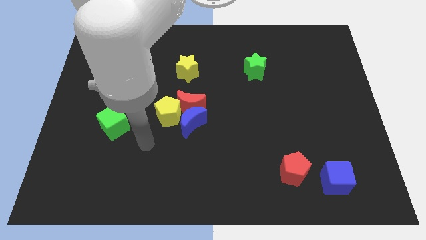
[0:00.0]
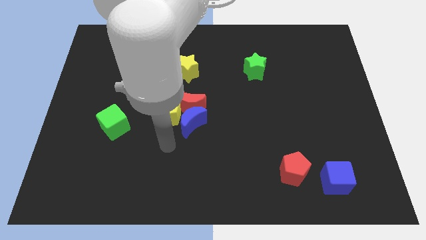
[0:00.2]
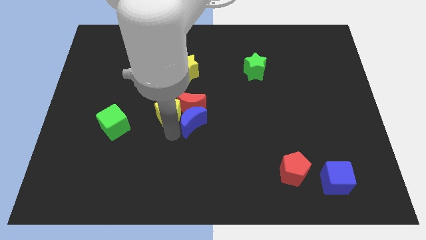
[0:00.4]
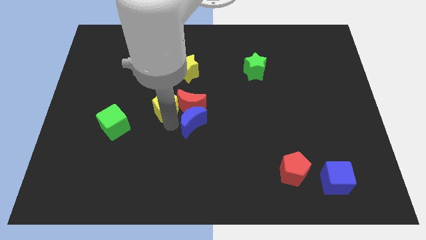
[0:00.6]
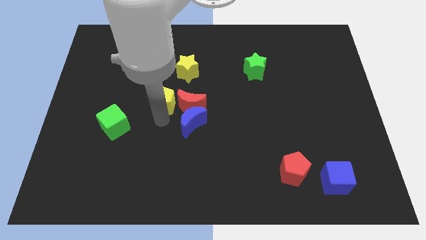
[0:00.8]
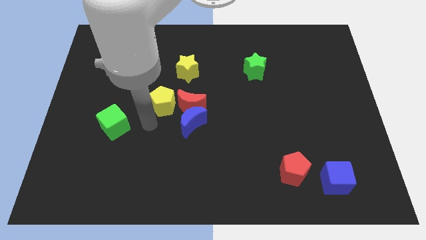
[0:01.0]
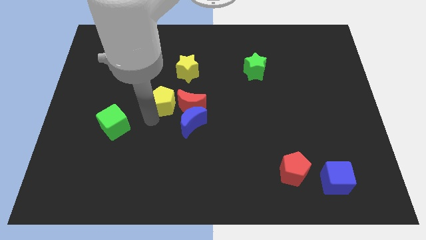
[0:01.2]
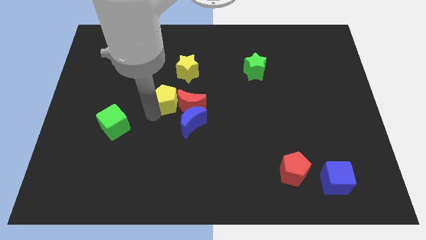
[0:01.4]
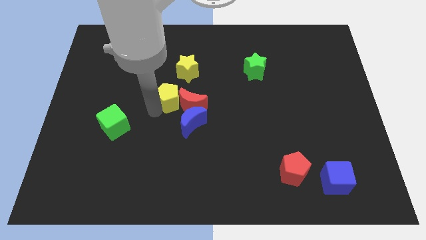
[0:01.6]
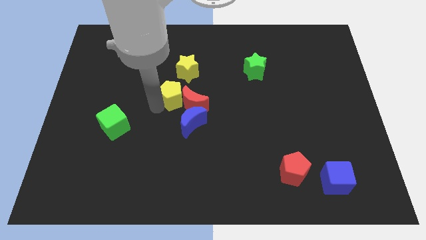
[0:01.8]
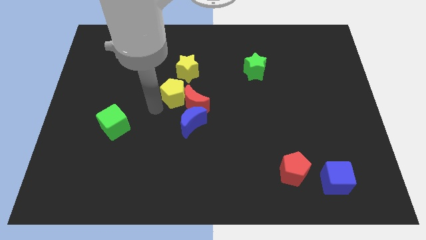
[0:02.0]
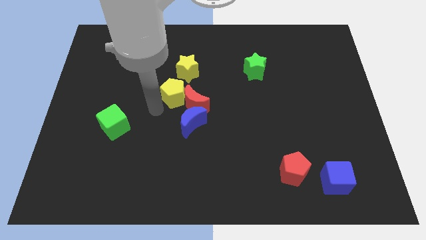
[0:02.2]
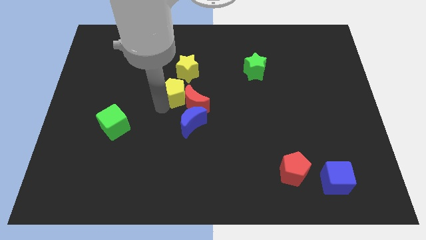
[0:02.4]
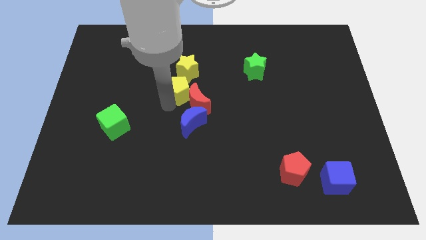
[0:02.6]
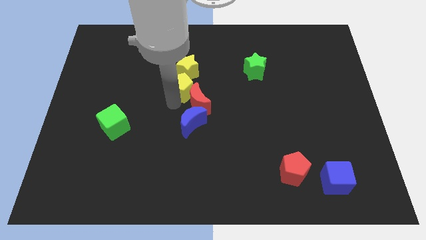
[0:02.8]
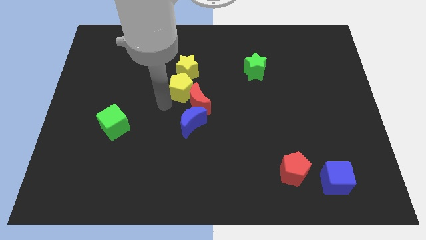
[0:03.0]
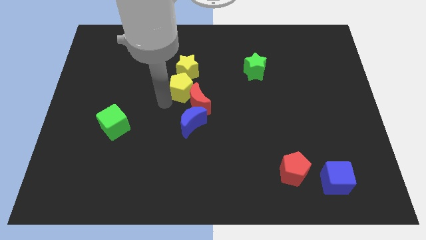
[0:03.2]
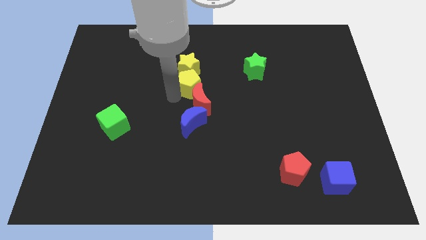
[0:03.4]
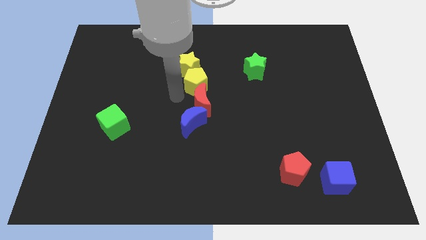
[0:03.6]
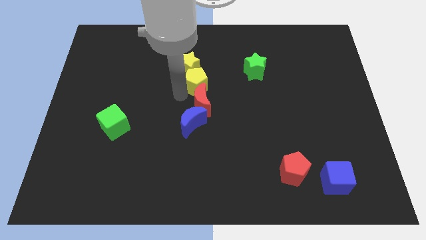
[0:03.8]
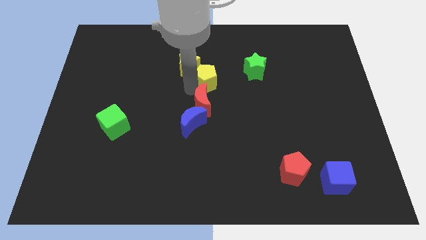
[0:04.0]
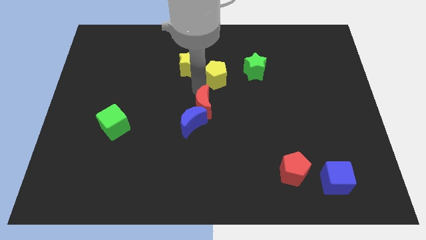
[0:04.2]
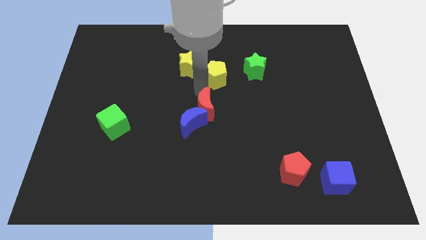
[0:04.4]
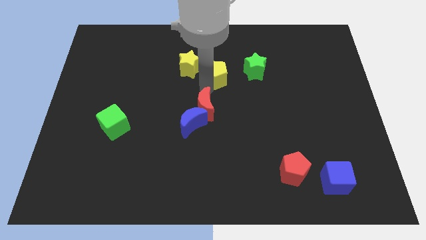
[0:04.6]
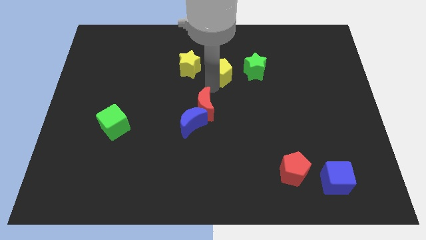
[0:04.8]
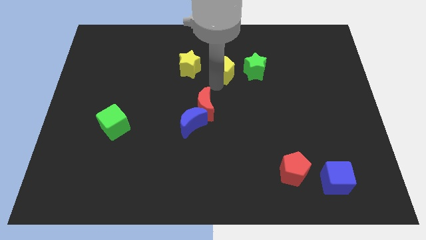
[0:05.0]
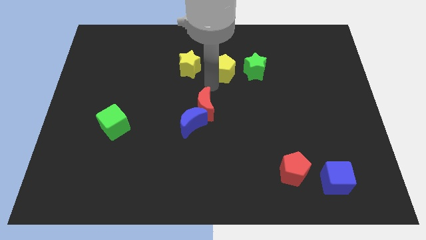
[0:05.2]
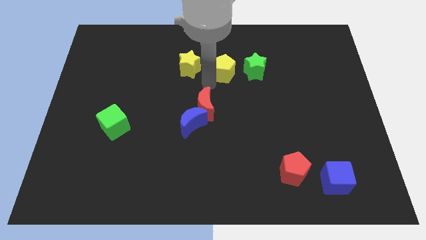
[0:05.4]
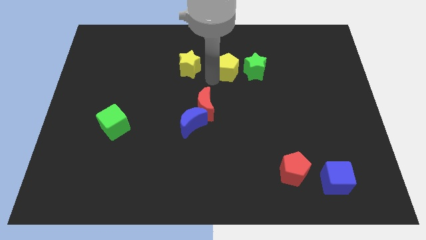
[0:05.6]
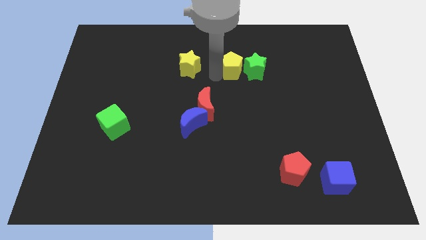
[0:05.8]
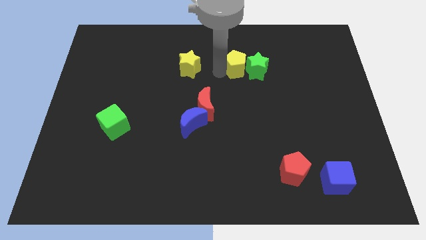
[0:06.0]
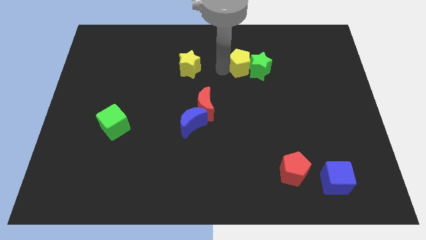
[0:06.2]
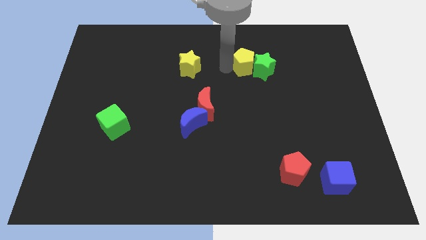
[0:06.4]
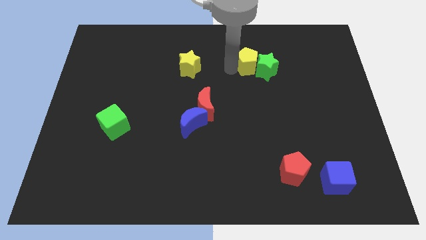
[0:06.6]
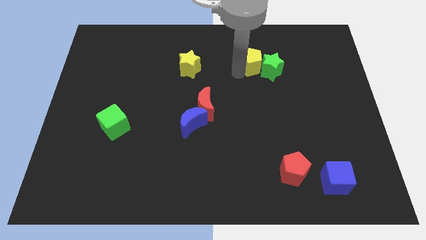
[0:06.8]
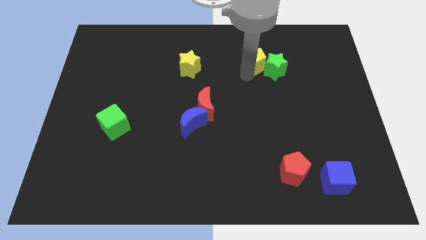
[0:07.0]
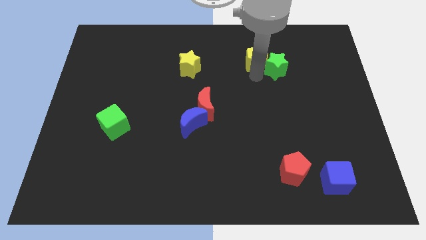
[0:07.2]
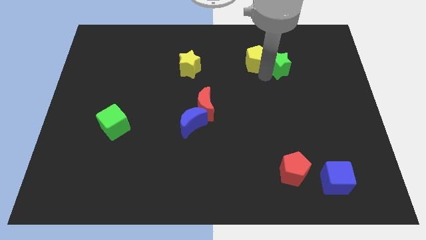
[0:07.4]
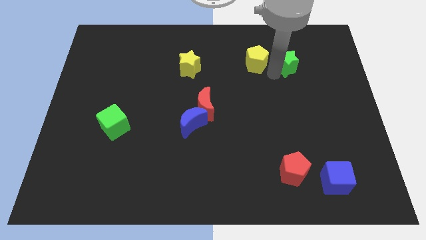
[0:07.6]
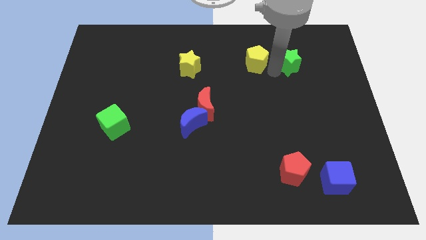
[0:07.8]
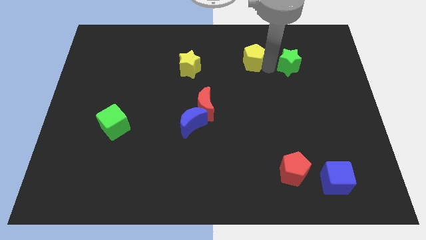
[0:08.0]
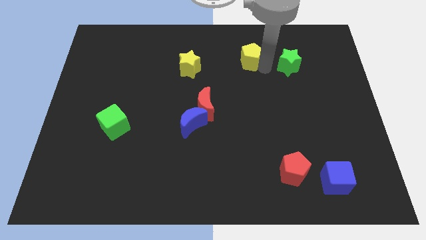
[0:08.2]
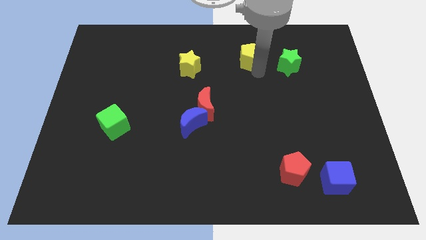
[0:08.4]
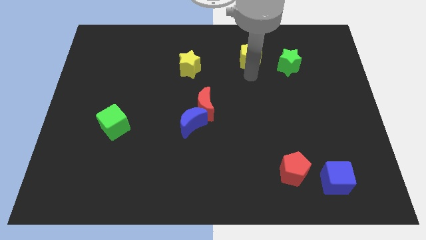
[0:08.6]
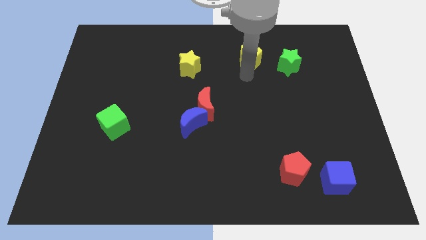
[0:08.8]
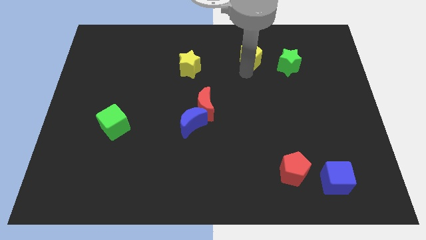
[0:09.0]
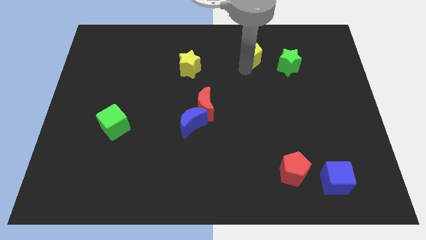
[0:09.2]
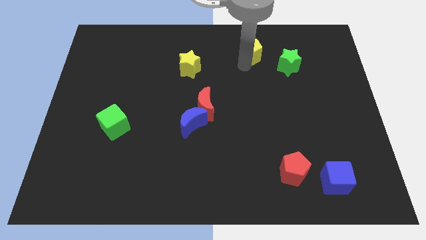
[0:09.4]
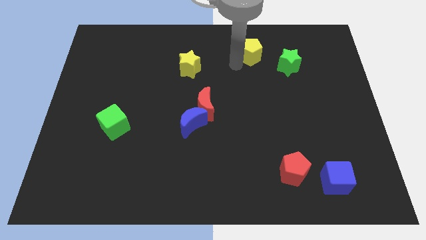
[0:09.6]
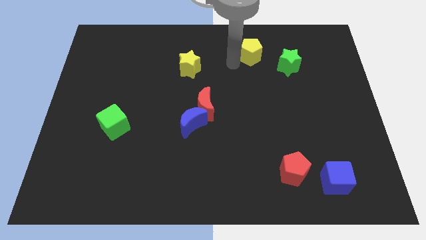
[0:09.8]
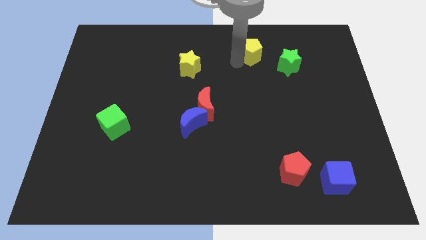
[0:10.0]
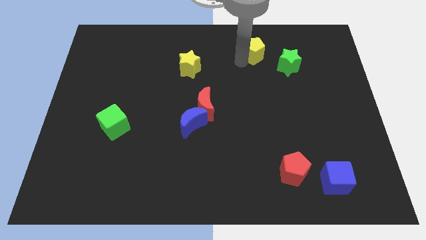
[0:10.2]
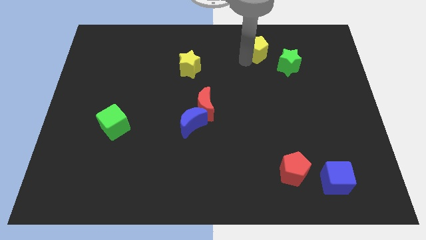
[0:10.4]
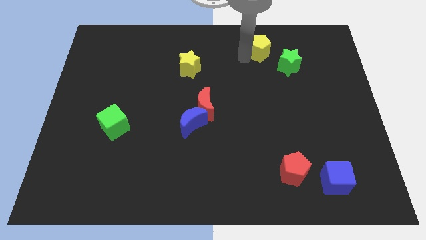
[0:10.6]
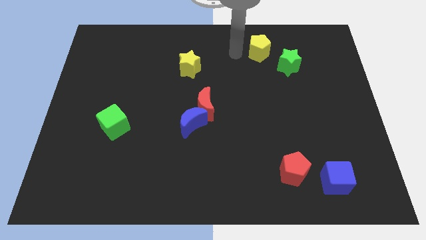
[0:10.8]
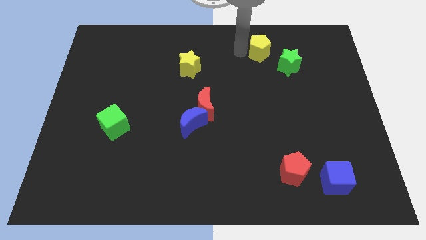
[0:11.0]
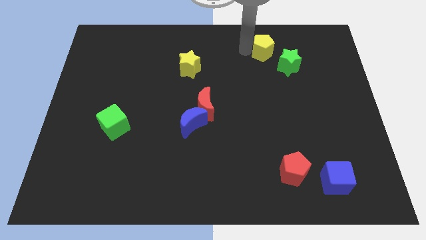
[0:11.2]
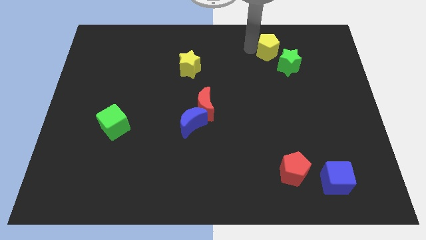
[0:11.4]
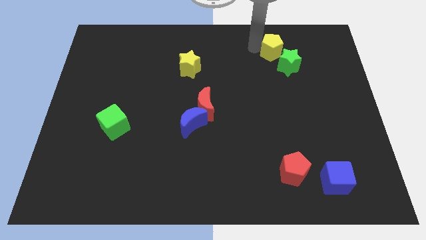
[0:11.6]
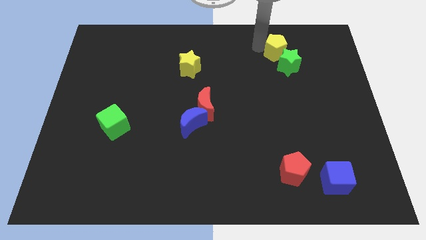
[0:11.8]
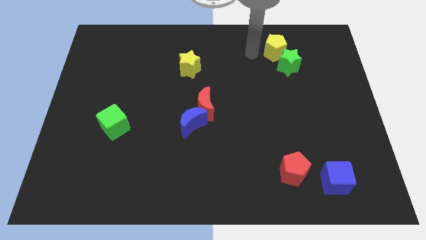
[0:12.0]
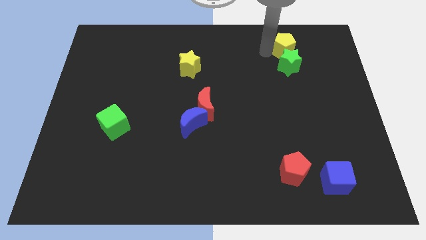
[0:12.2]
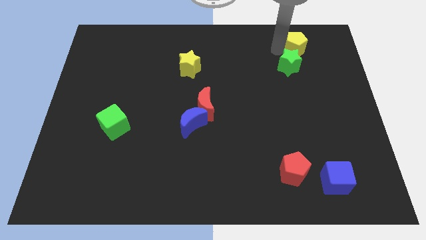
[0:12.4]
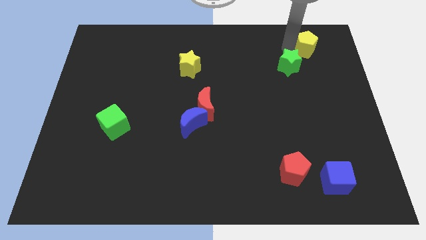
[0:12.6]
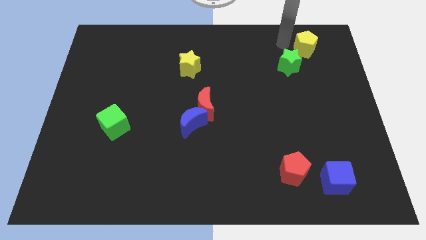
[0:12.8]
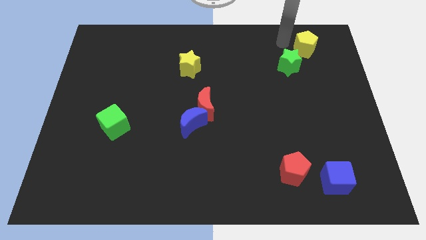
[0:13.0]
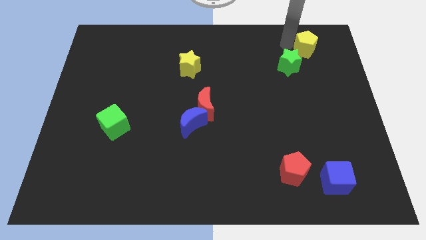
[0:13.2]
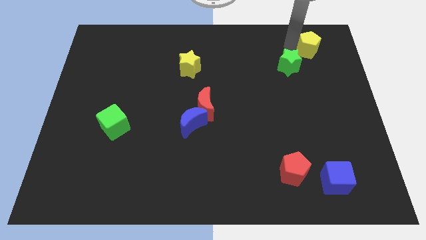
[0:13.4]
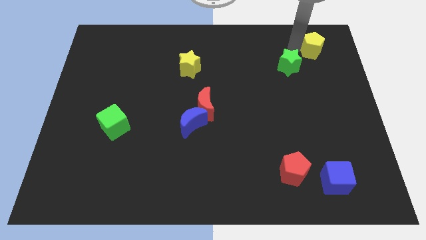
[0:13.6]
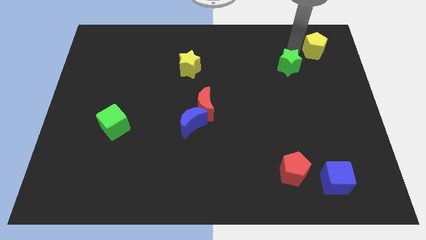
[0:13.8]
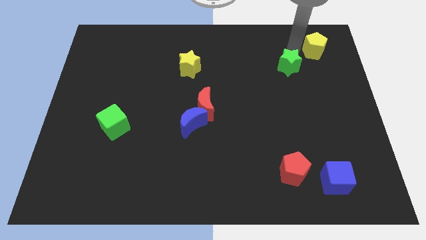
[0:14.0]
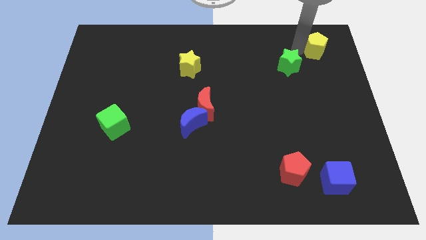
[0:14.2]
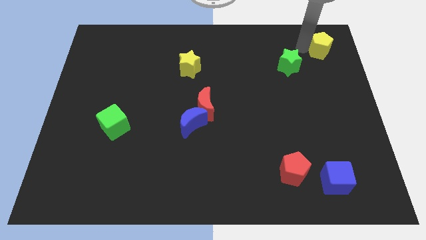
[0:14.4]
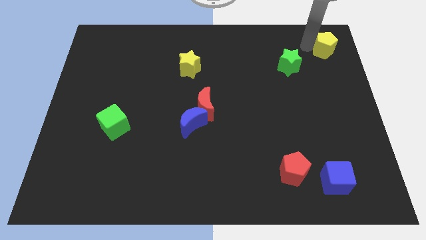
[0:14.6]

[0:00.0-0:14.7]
move the yellow pentagon to the upper right corner
